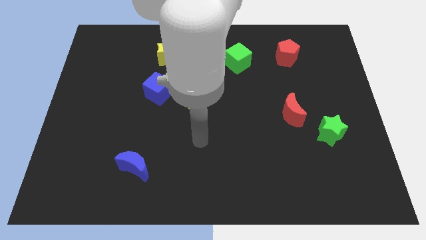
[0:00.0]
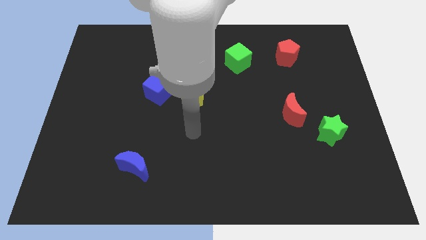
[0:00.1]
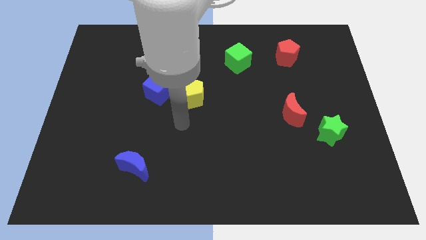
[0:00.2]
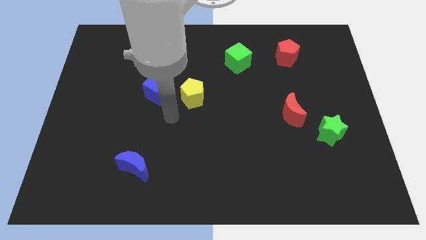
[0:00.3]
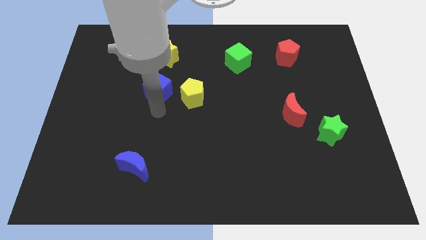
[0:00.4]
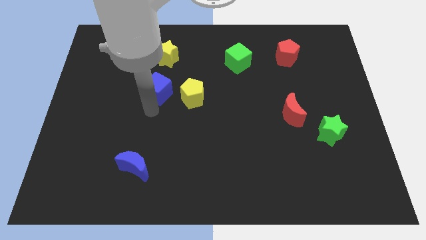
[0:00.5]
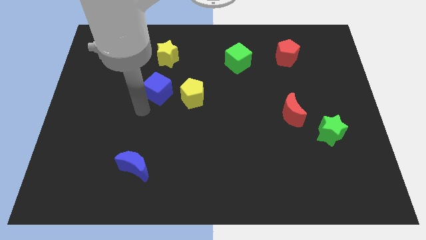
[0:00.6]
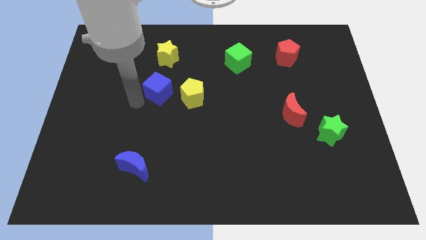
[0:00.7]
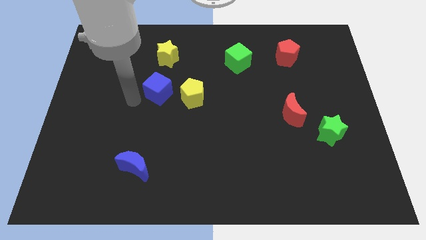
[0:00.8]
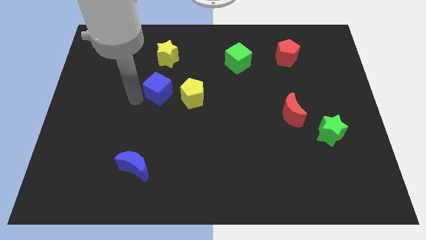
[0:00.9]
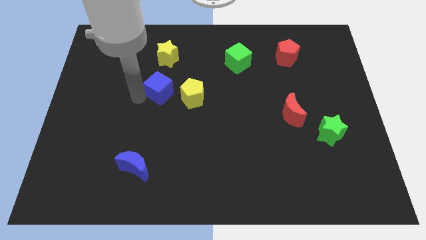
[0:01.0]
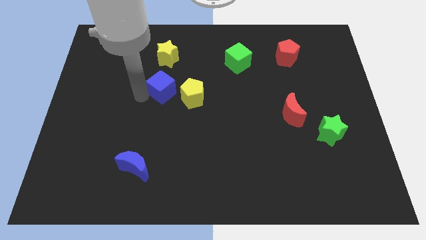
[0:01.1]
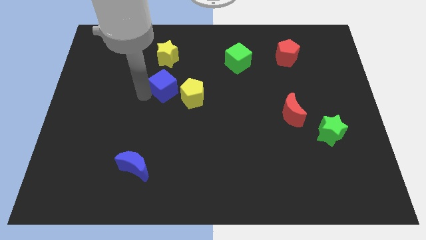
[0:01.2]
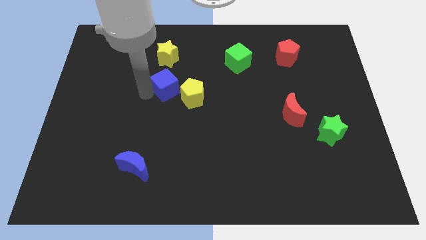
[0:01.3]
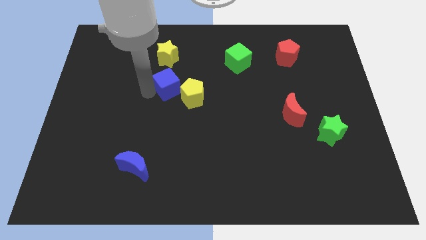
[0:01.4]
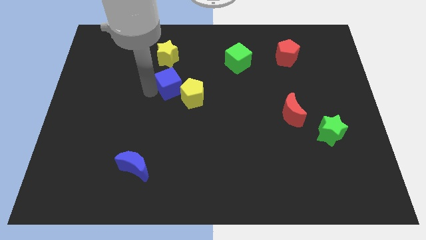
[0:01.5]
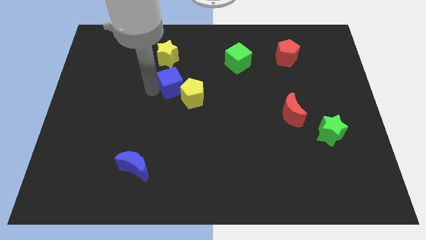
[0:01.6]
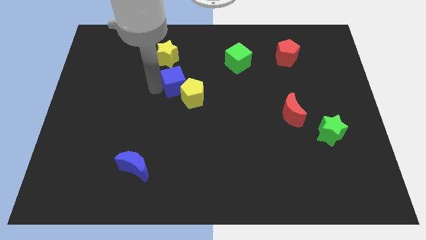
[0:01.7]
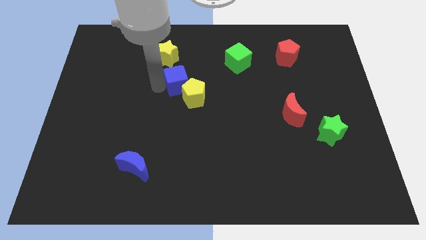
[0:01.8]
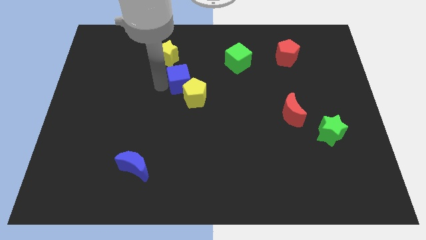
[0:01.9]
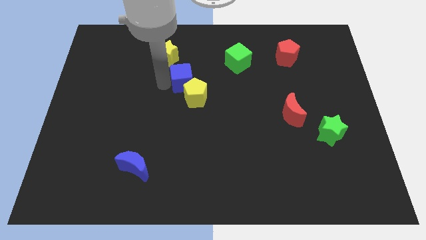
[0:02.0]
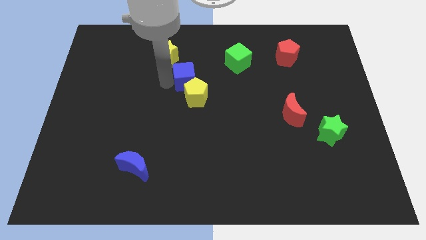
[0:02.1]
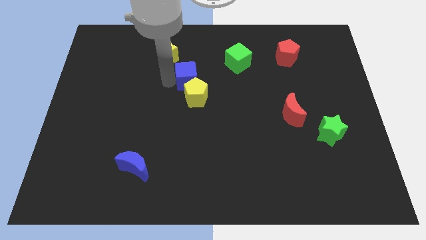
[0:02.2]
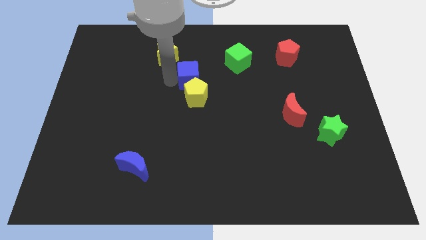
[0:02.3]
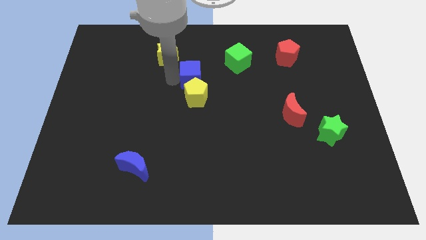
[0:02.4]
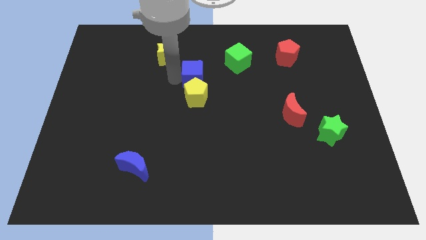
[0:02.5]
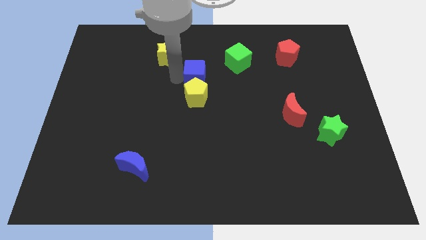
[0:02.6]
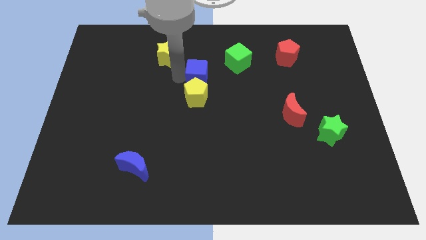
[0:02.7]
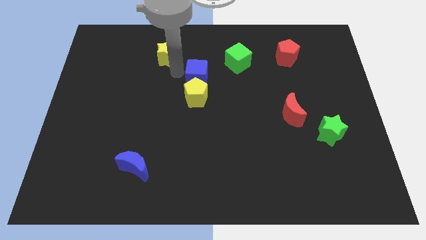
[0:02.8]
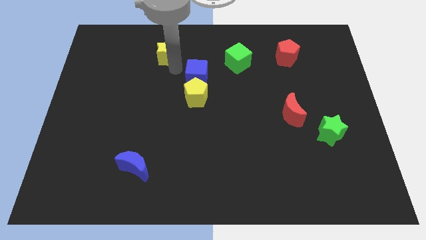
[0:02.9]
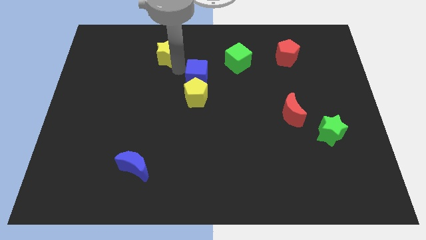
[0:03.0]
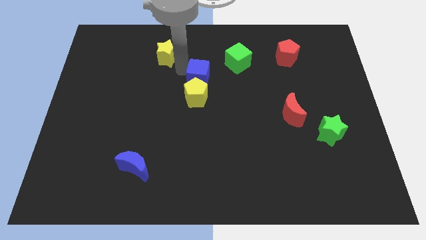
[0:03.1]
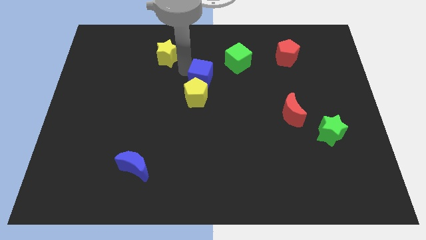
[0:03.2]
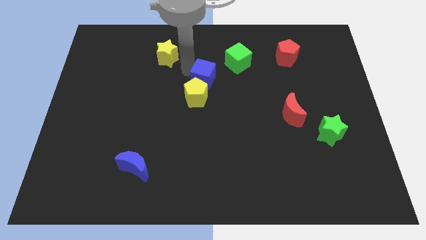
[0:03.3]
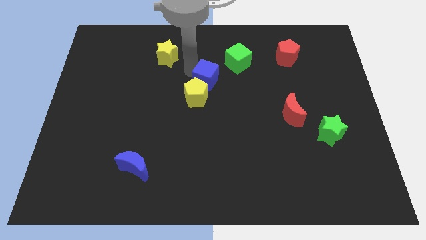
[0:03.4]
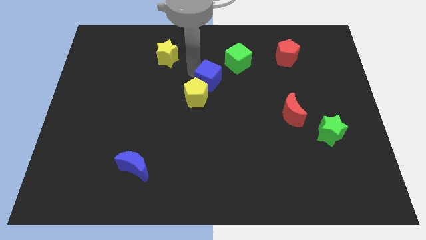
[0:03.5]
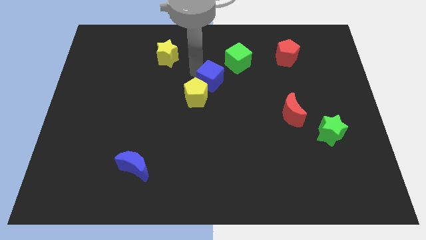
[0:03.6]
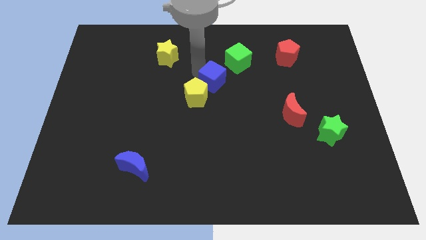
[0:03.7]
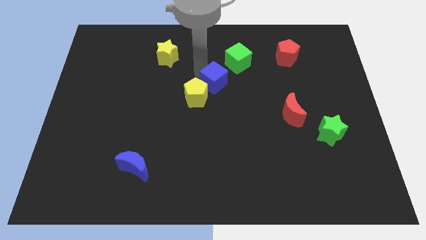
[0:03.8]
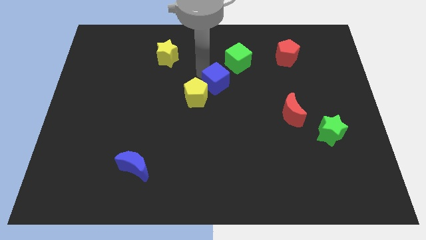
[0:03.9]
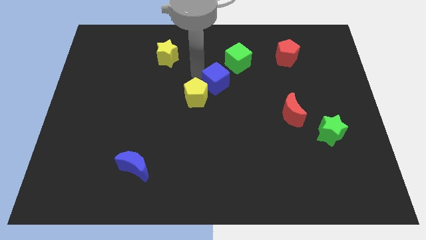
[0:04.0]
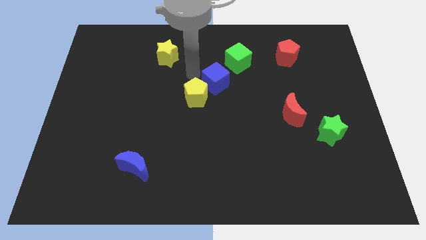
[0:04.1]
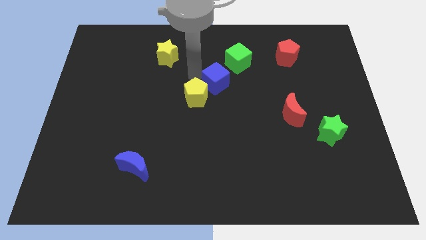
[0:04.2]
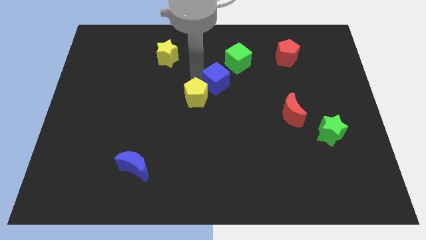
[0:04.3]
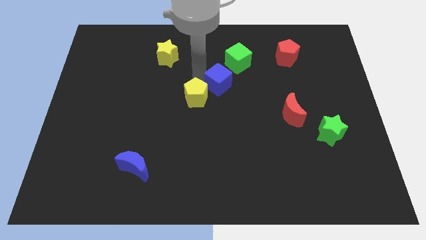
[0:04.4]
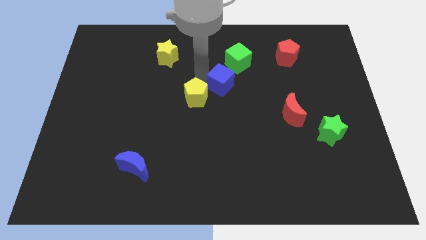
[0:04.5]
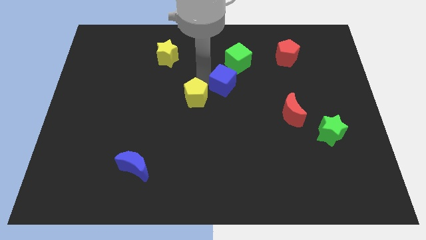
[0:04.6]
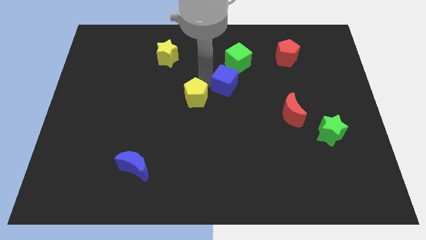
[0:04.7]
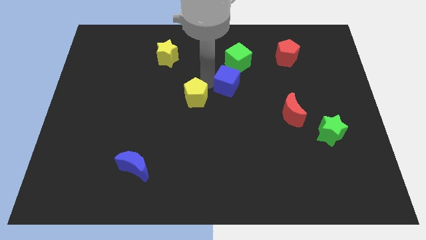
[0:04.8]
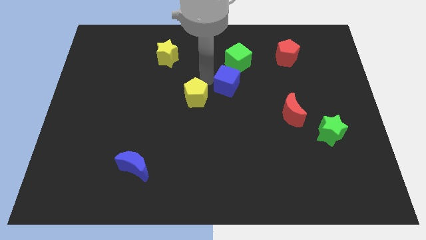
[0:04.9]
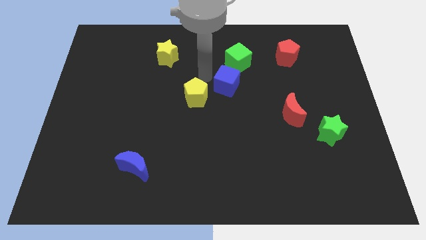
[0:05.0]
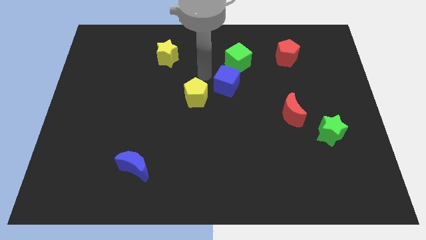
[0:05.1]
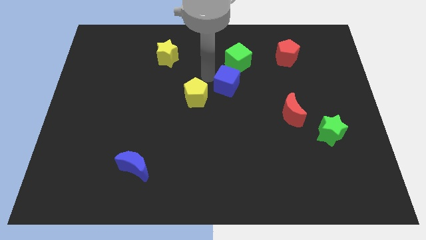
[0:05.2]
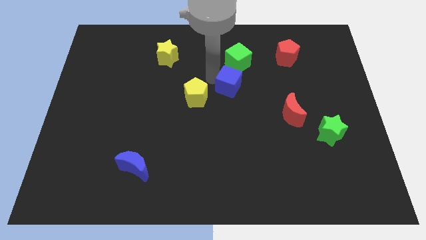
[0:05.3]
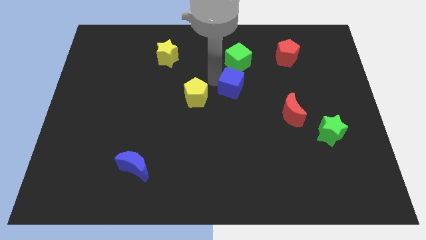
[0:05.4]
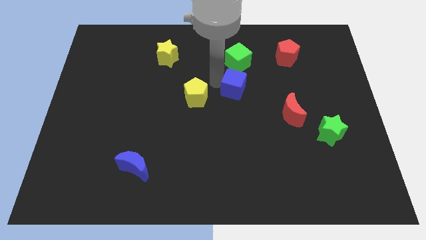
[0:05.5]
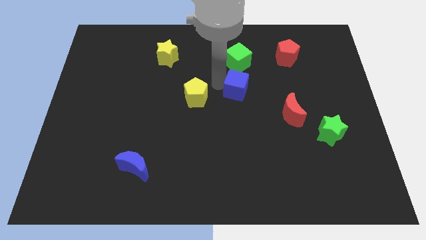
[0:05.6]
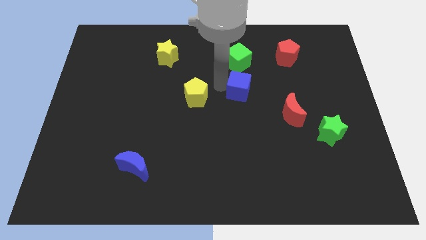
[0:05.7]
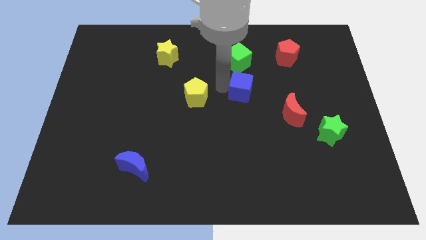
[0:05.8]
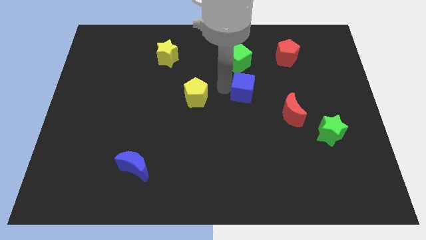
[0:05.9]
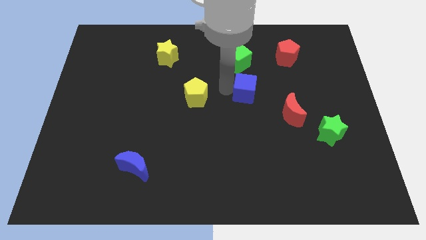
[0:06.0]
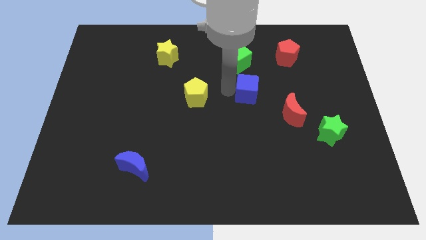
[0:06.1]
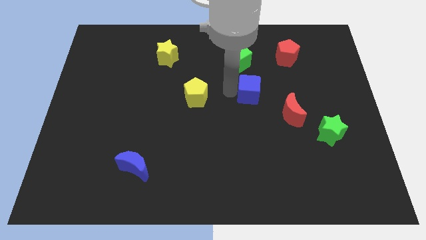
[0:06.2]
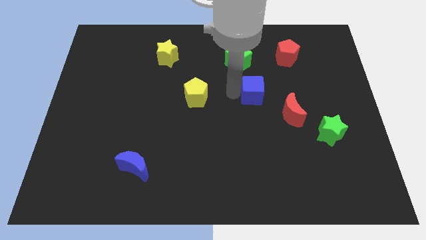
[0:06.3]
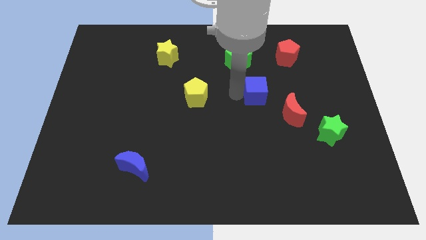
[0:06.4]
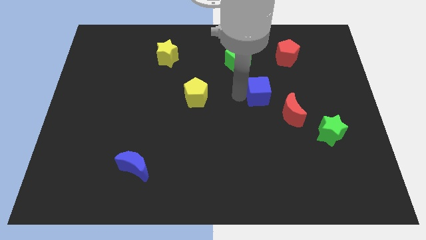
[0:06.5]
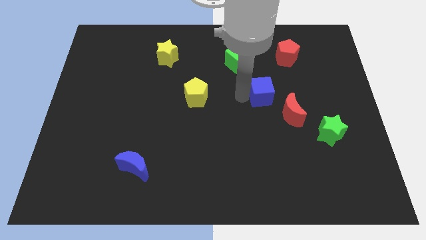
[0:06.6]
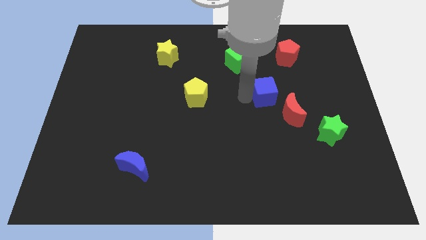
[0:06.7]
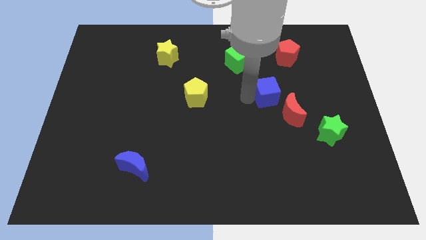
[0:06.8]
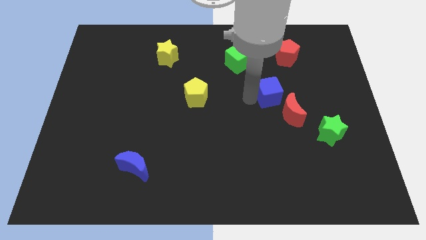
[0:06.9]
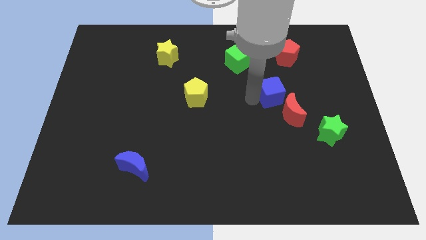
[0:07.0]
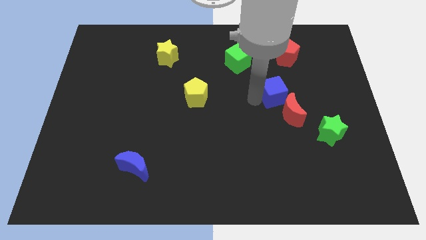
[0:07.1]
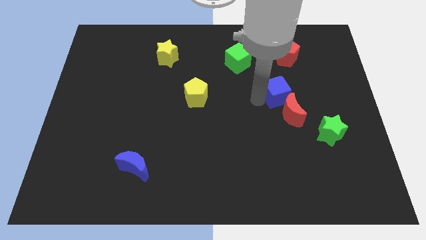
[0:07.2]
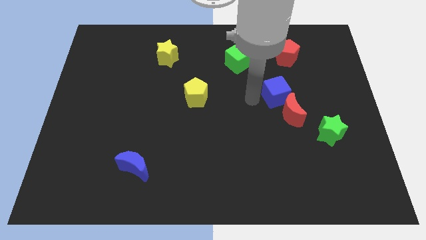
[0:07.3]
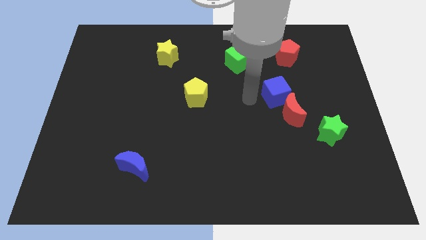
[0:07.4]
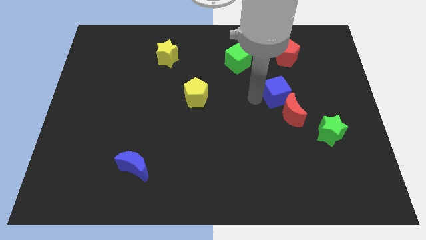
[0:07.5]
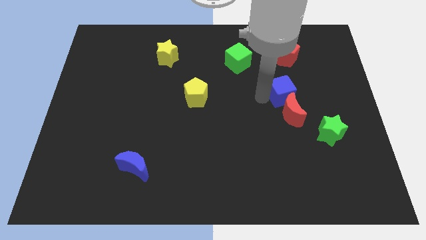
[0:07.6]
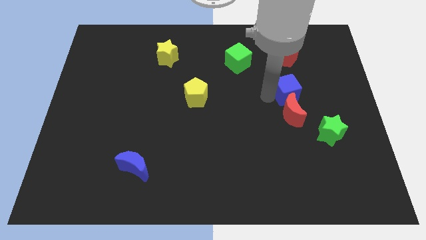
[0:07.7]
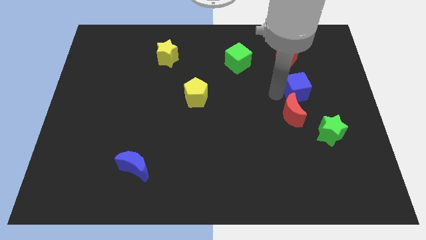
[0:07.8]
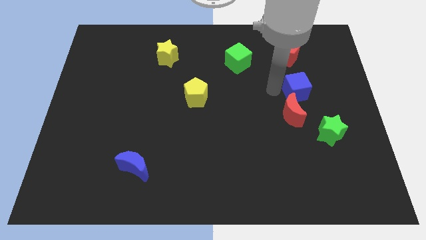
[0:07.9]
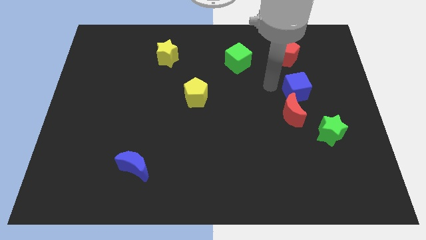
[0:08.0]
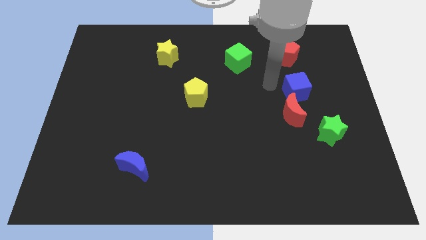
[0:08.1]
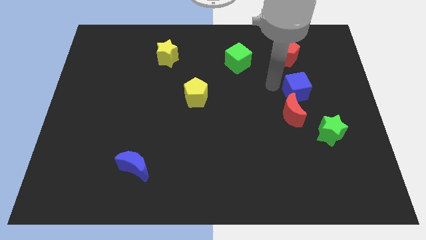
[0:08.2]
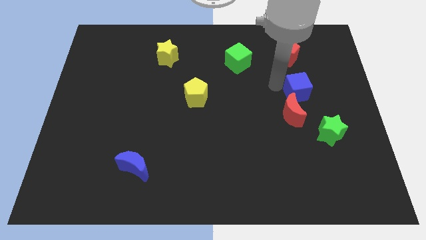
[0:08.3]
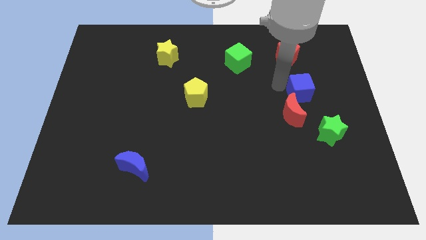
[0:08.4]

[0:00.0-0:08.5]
push the blue cube above the green star
